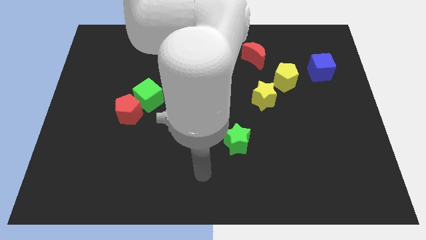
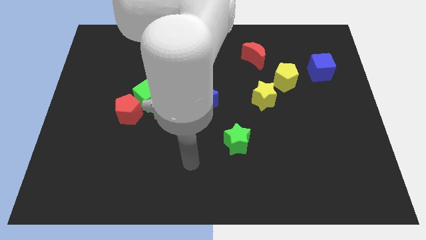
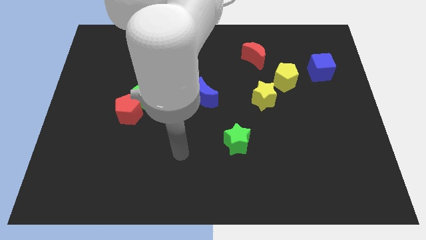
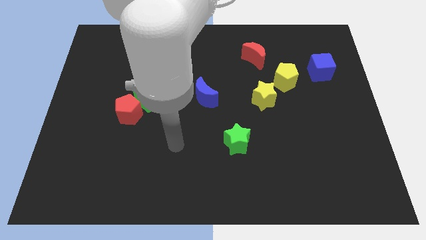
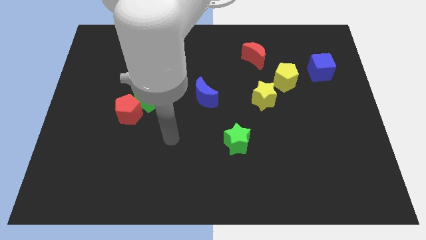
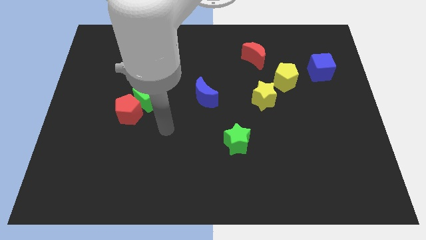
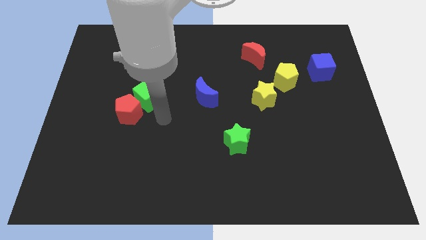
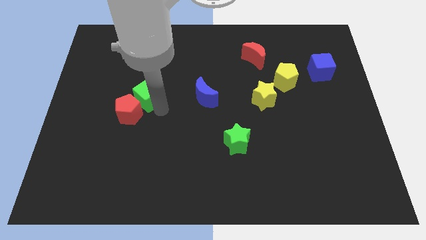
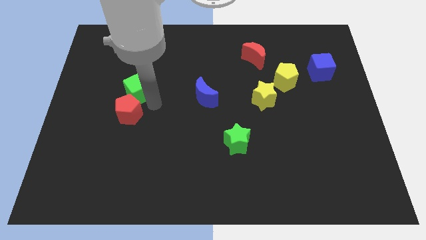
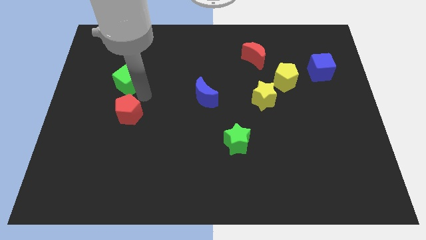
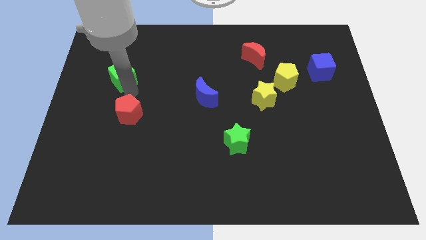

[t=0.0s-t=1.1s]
move the red pentagon away from the green cube

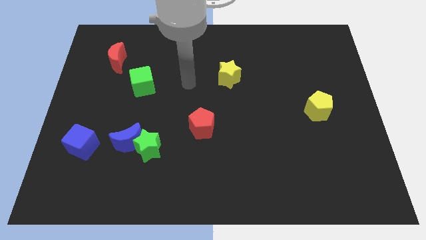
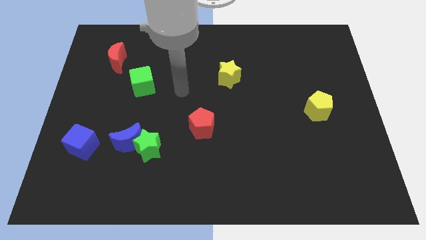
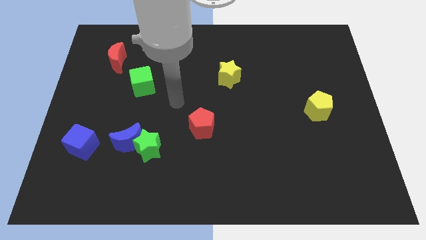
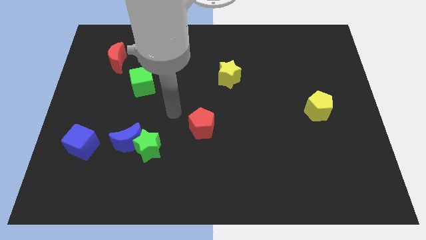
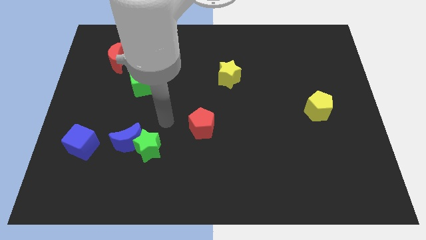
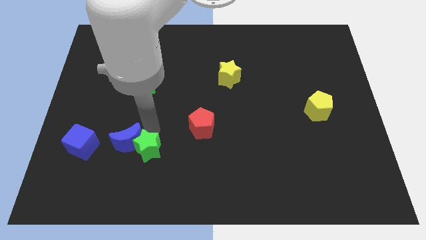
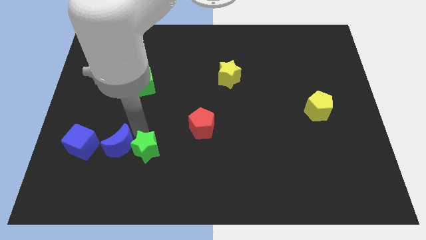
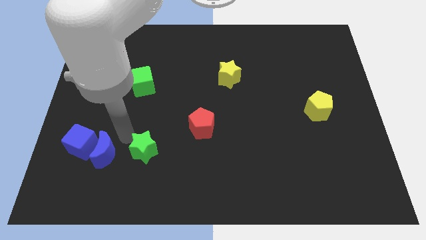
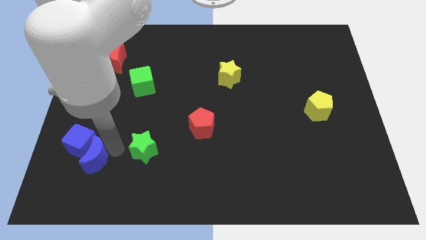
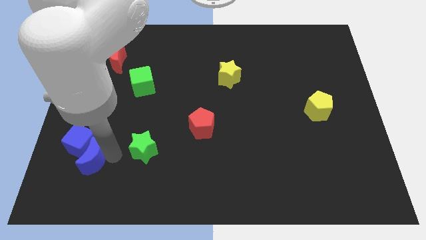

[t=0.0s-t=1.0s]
move the green star away from the blue moon

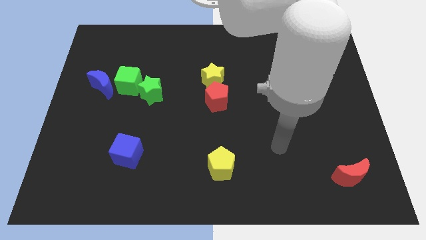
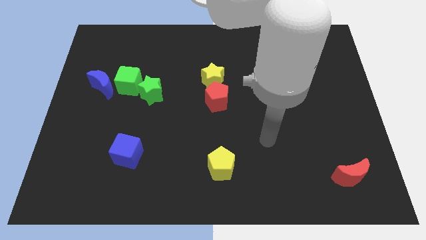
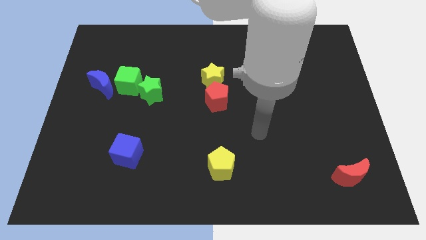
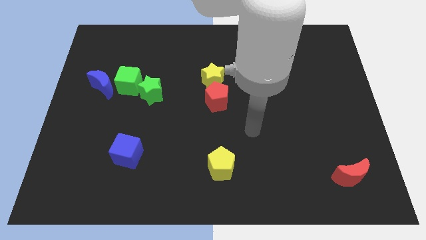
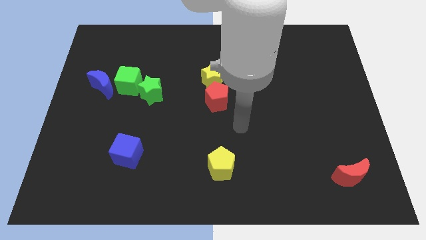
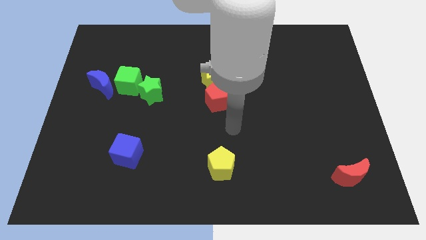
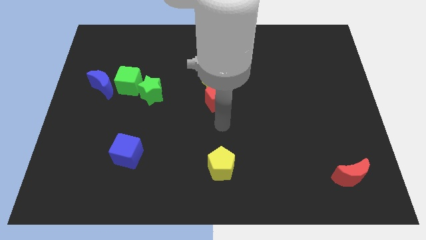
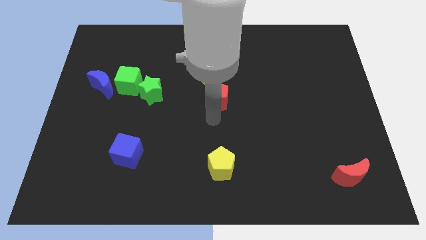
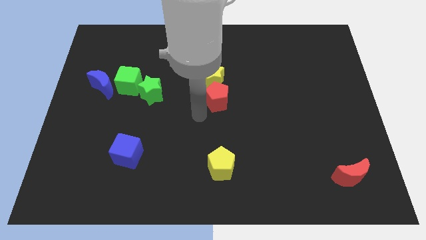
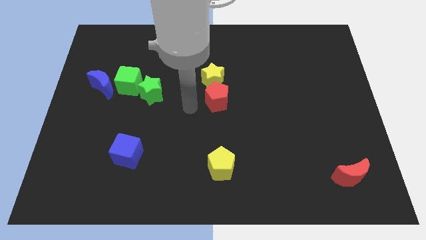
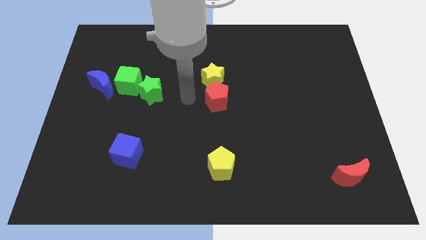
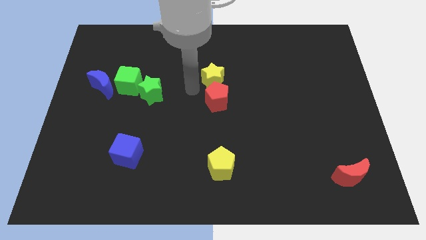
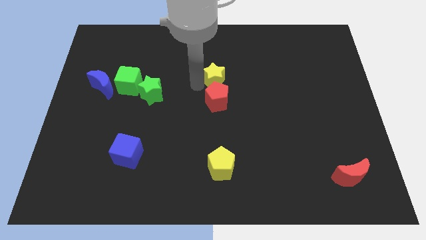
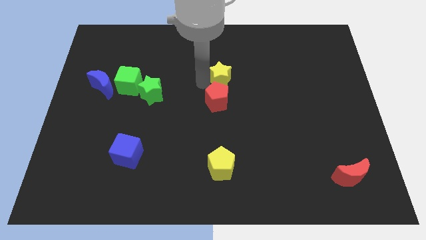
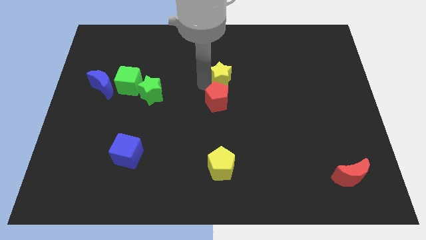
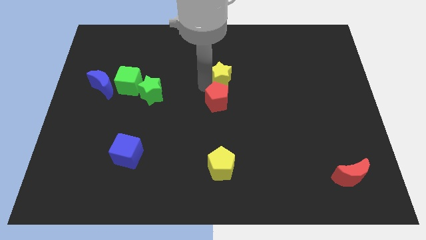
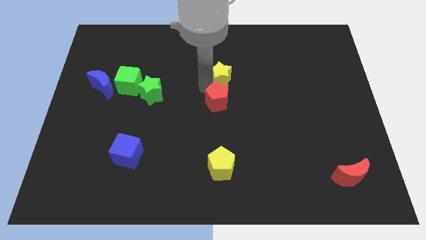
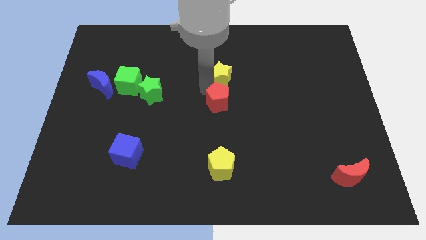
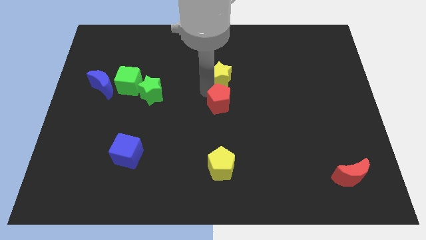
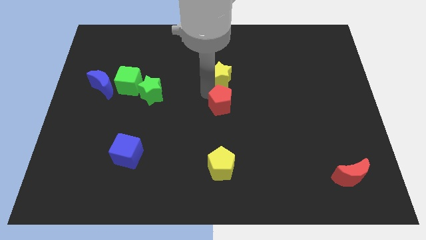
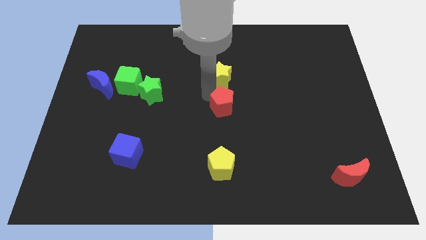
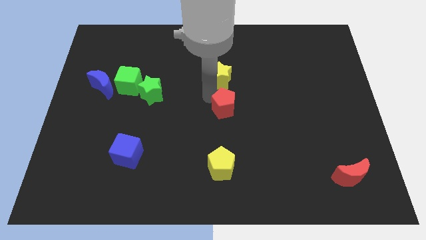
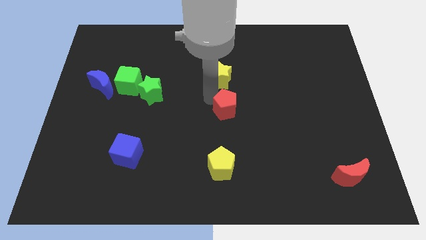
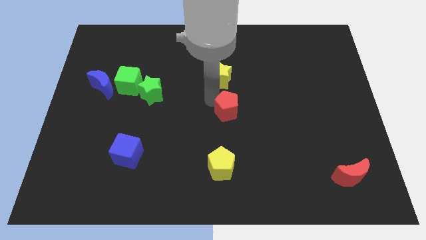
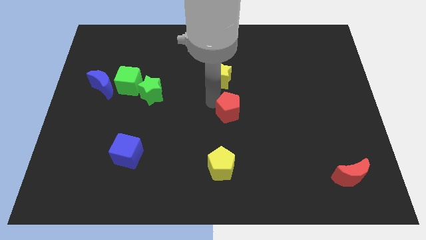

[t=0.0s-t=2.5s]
pull the red pentagon apart from the yellow star

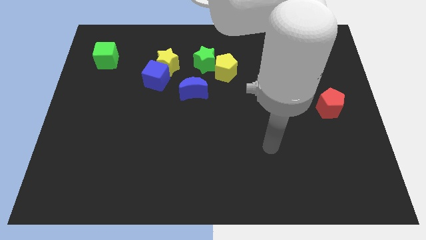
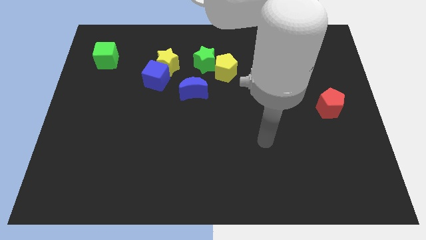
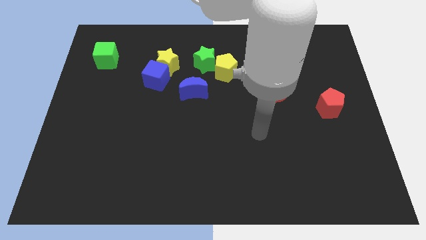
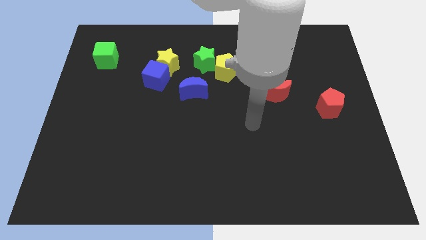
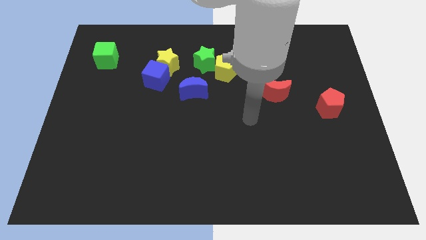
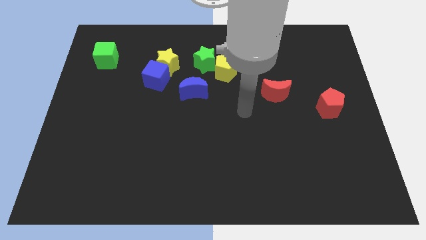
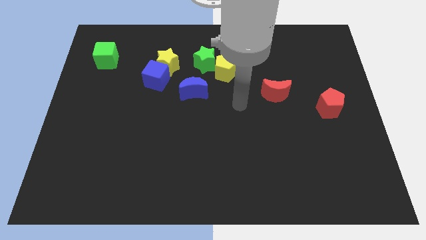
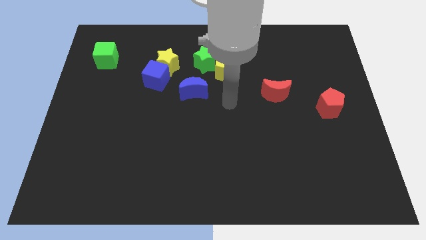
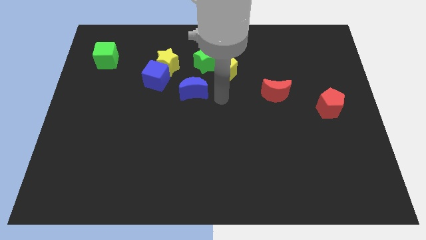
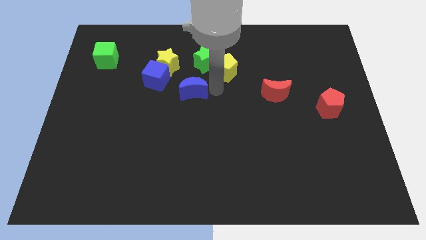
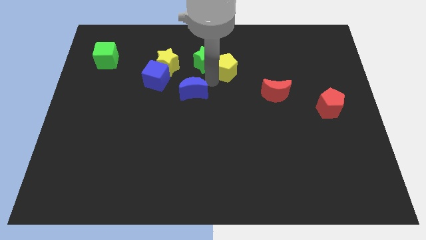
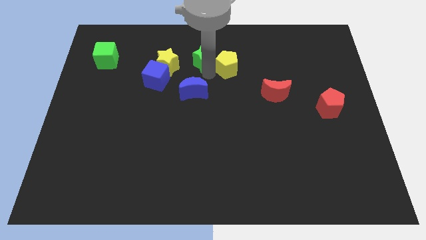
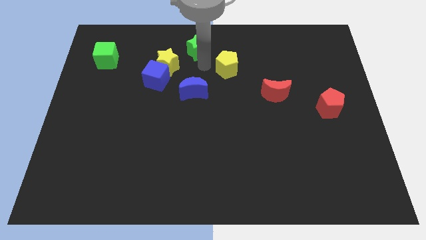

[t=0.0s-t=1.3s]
separate the yellow pentagon from the green star

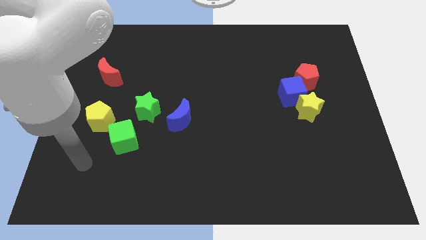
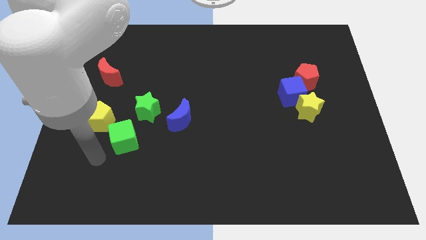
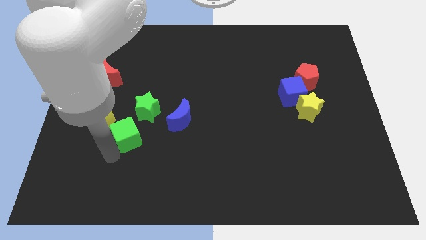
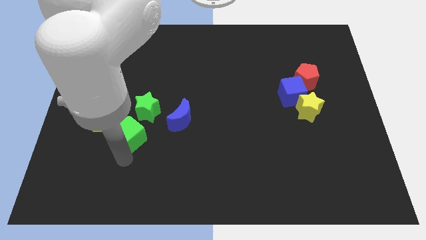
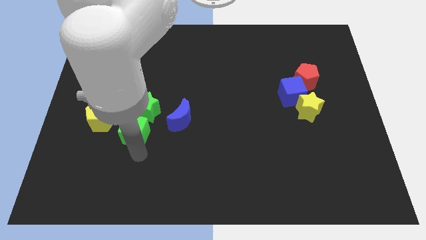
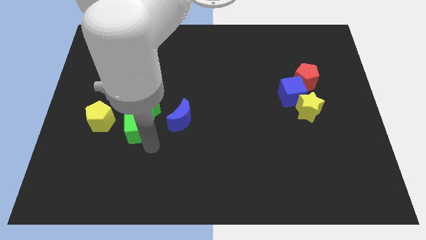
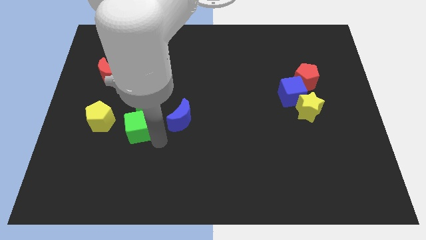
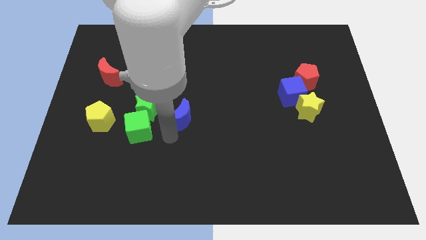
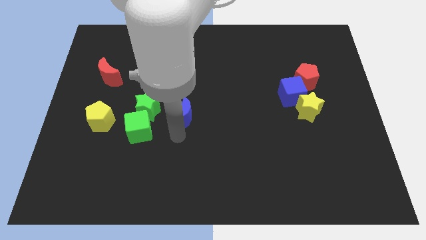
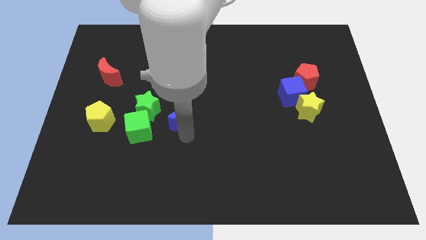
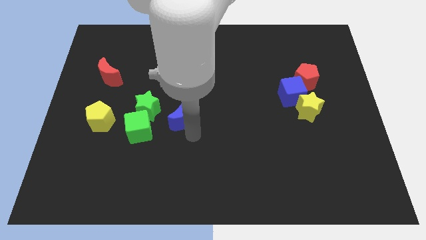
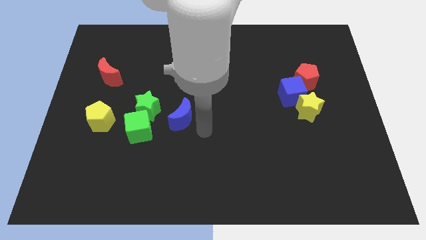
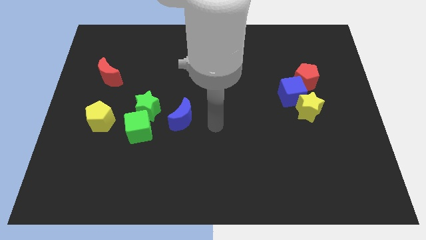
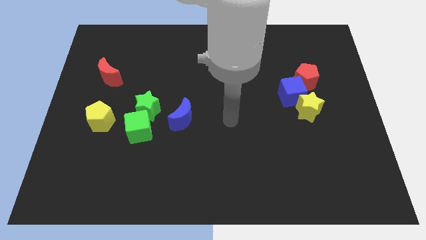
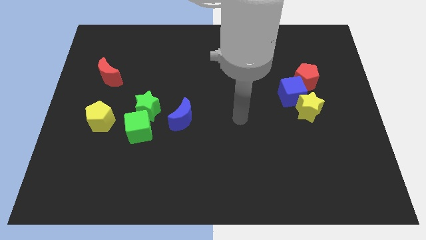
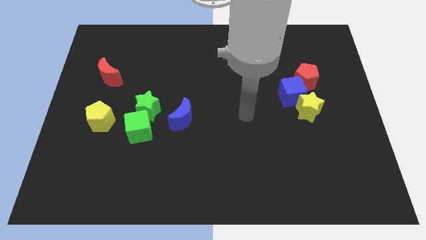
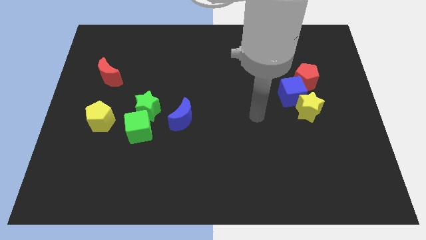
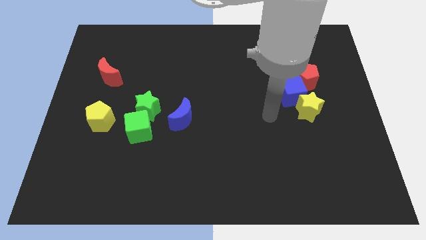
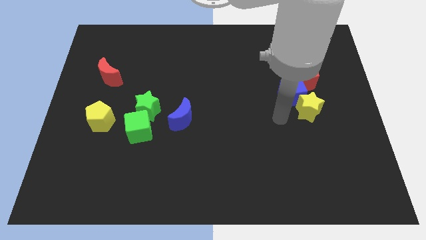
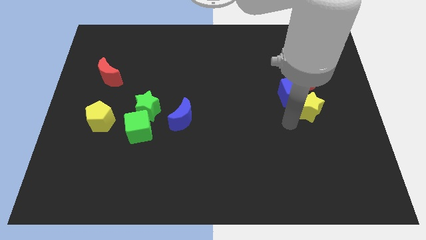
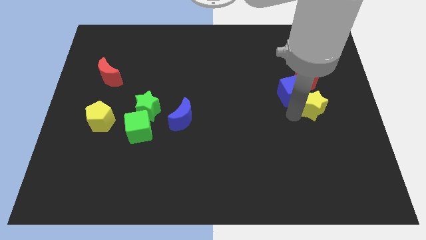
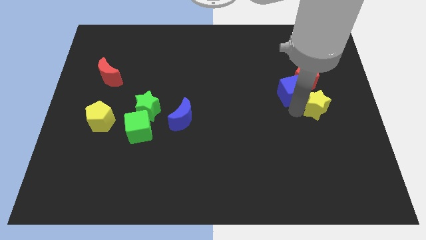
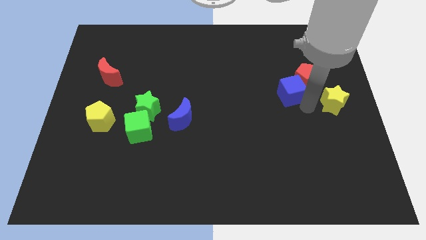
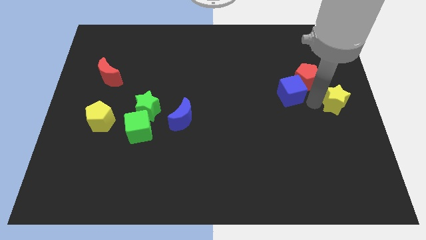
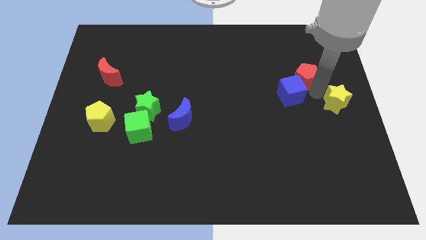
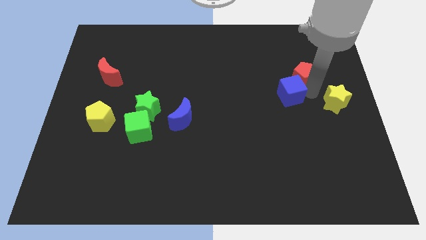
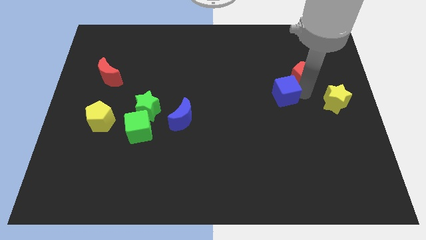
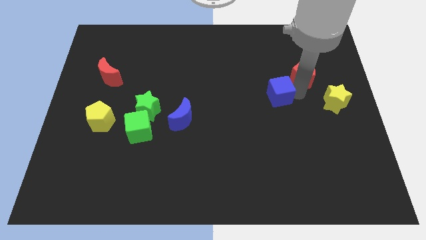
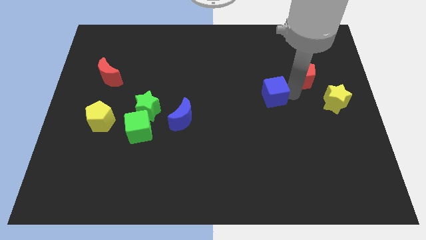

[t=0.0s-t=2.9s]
move the blue cube away from the yellow star and red pentagon

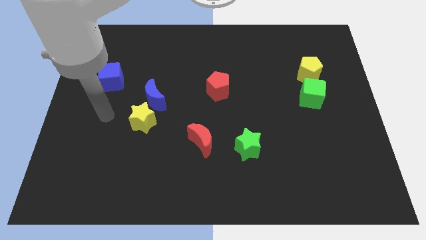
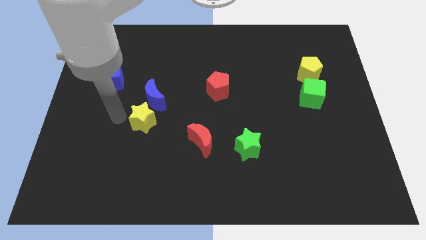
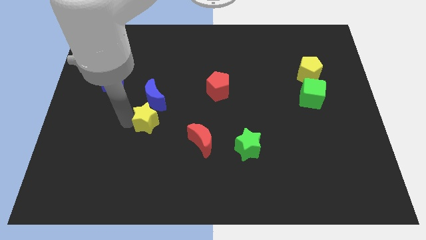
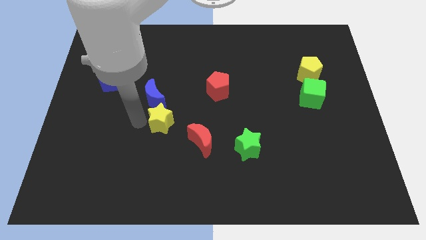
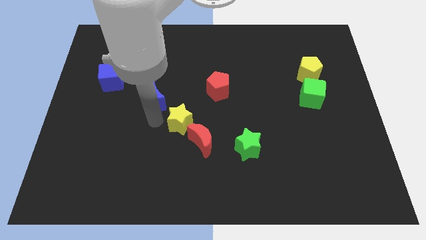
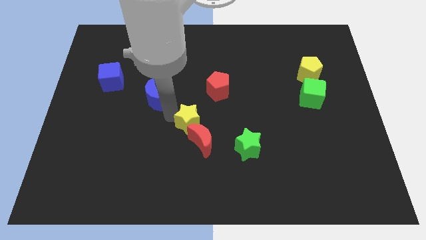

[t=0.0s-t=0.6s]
separate the blue moon from the yellow star
